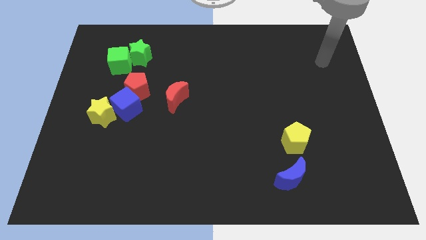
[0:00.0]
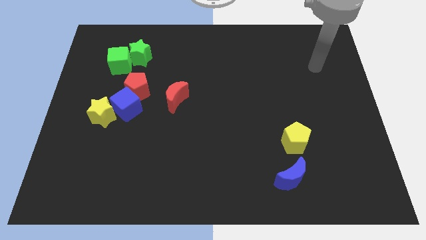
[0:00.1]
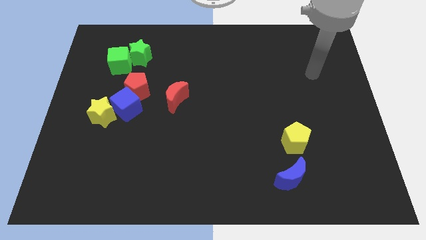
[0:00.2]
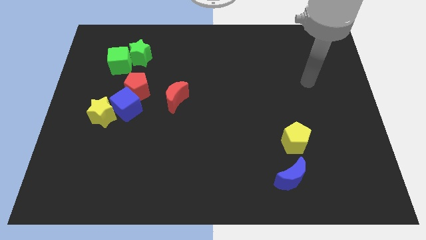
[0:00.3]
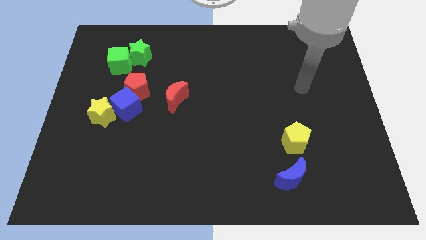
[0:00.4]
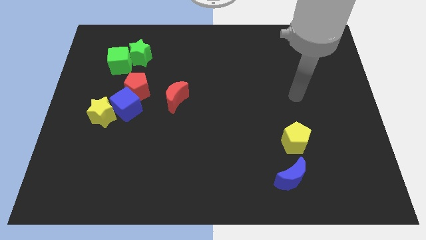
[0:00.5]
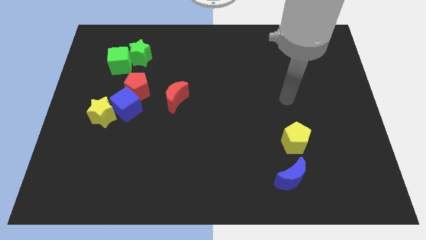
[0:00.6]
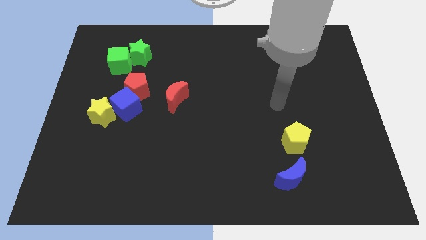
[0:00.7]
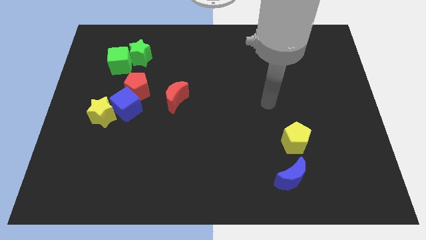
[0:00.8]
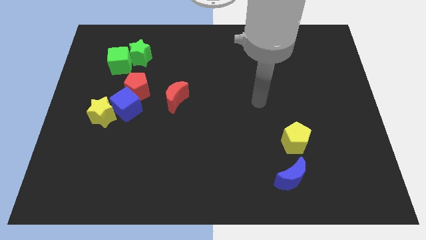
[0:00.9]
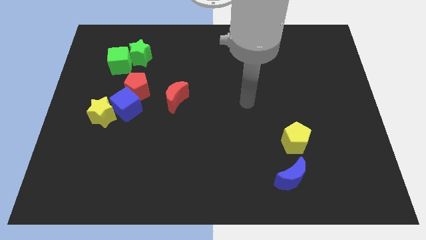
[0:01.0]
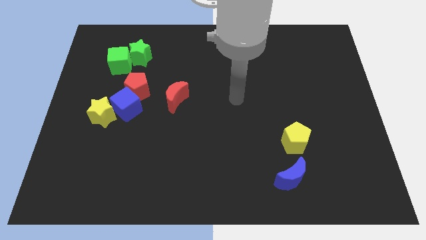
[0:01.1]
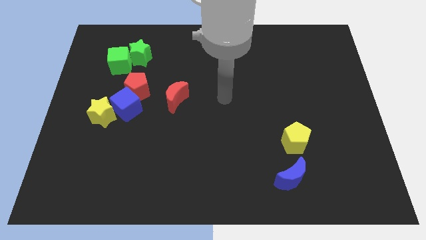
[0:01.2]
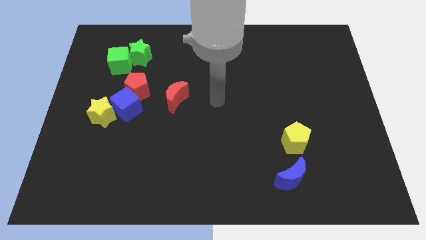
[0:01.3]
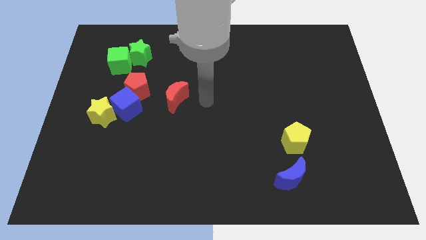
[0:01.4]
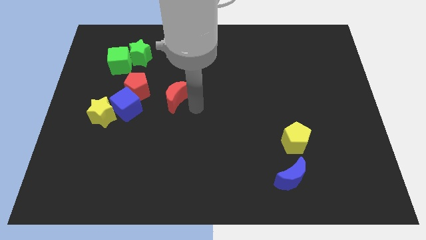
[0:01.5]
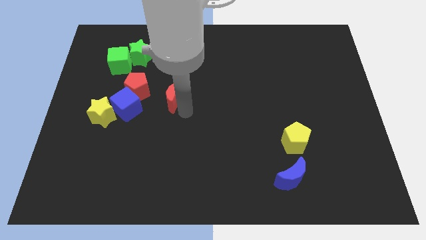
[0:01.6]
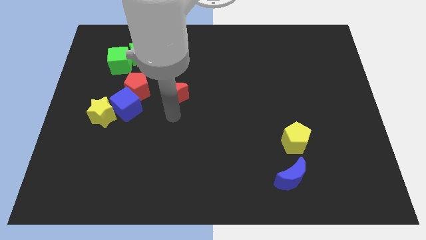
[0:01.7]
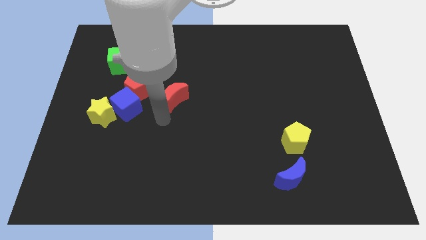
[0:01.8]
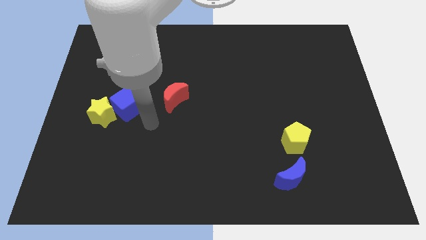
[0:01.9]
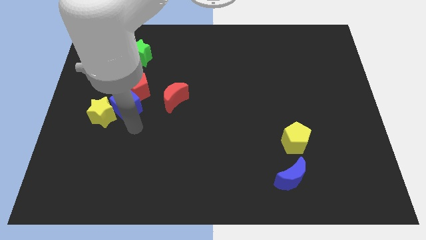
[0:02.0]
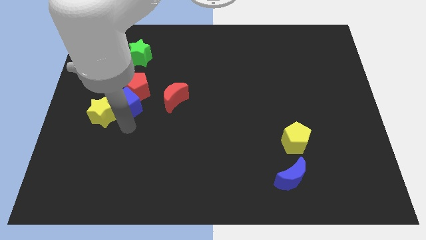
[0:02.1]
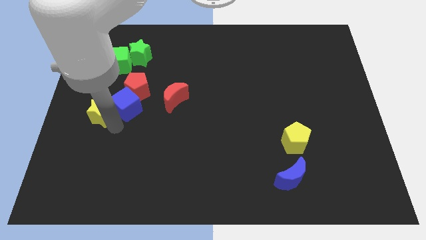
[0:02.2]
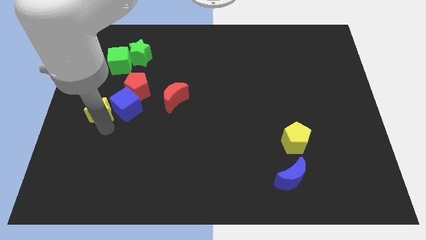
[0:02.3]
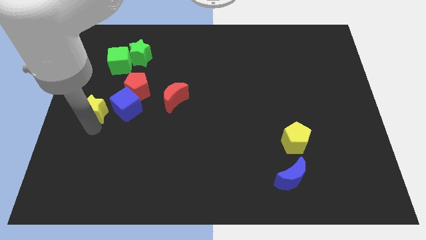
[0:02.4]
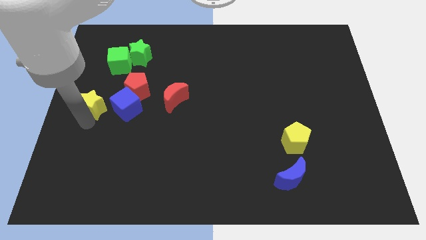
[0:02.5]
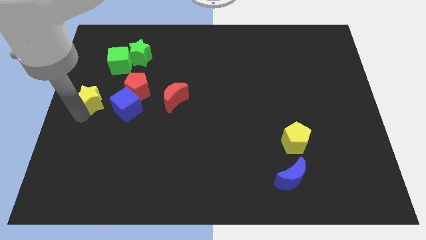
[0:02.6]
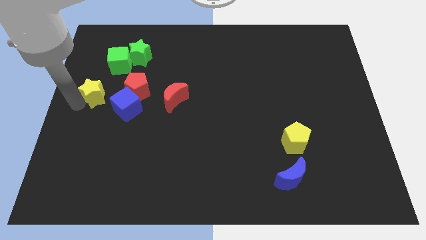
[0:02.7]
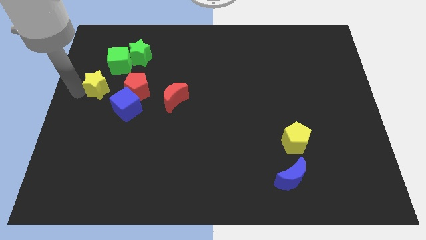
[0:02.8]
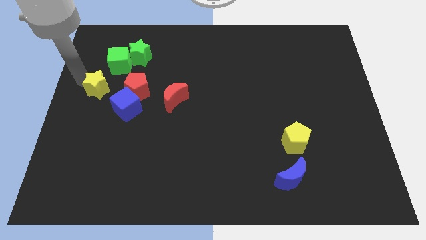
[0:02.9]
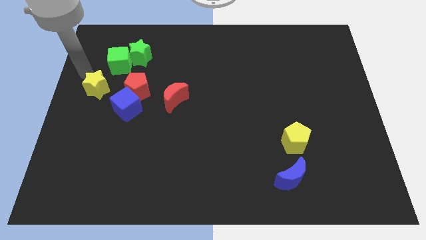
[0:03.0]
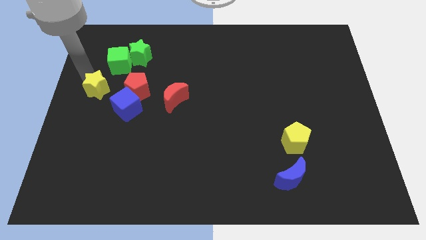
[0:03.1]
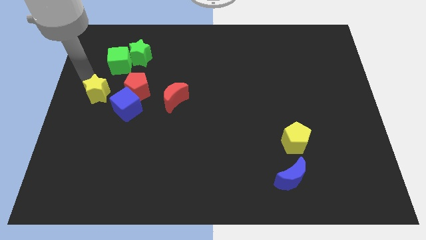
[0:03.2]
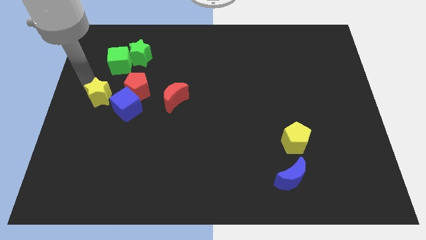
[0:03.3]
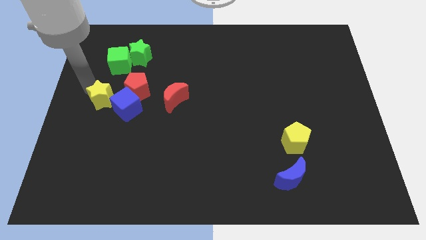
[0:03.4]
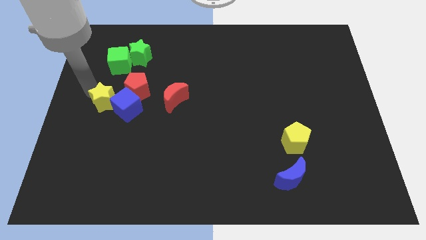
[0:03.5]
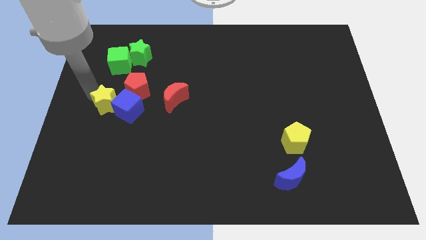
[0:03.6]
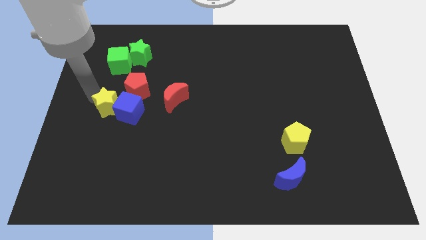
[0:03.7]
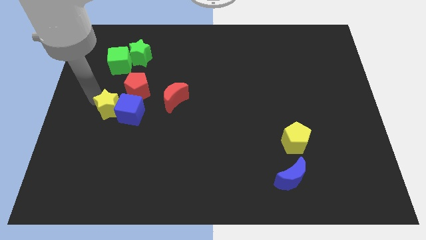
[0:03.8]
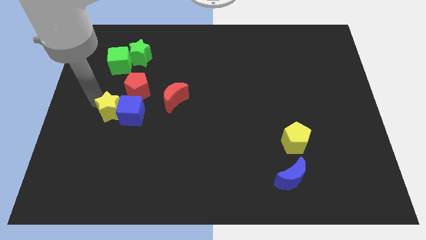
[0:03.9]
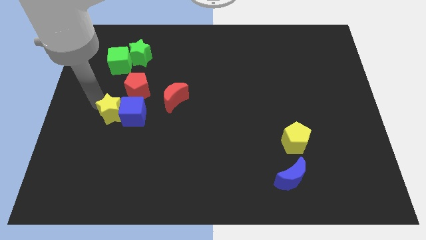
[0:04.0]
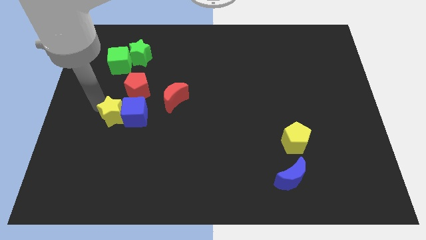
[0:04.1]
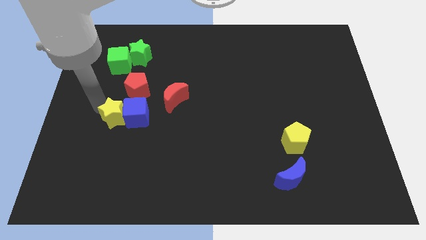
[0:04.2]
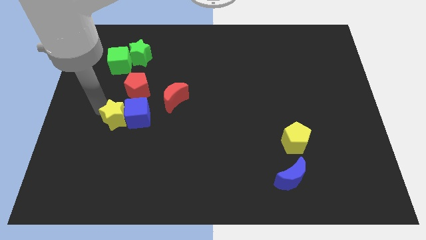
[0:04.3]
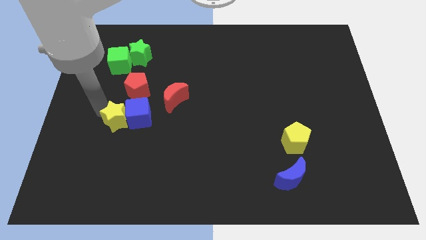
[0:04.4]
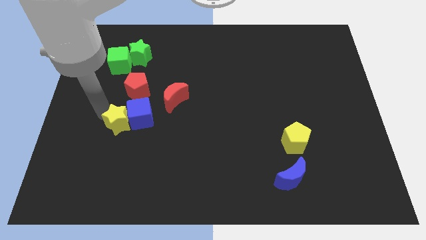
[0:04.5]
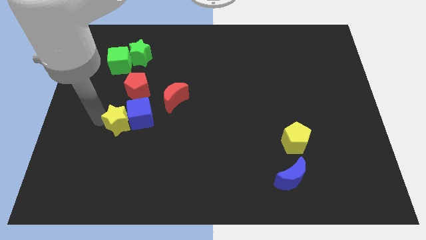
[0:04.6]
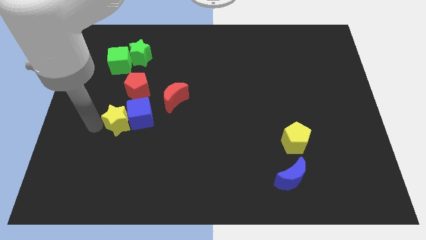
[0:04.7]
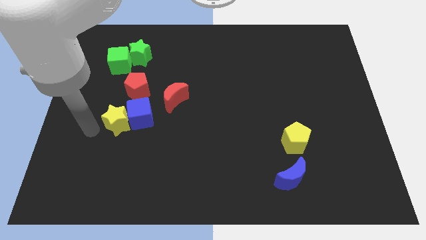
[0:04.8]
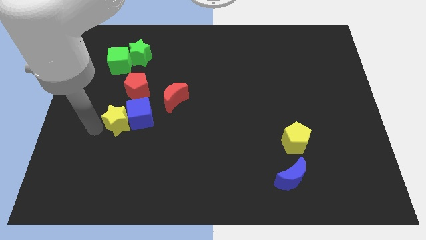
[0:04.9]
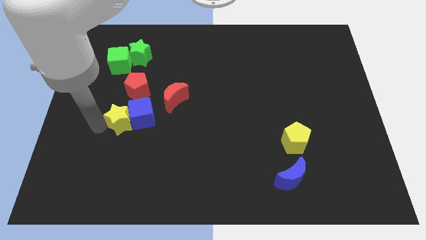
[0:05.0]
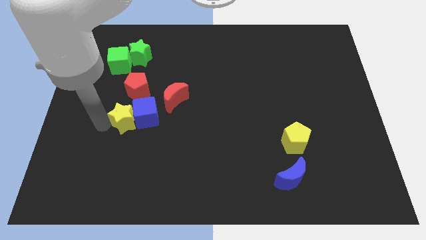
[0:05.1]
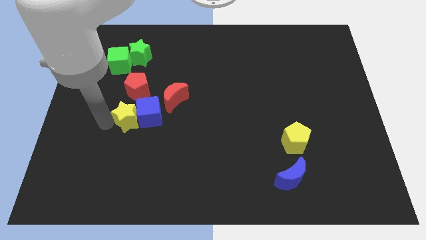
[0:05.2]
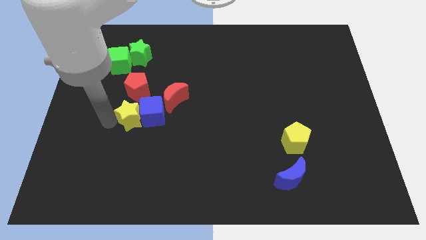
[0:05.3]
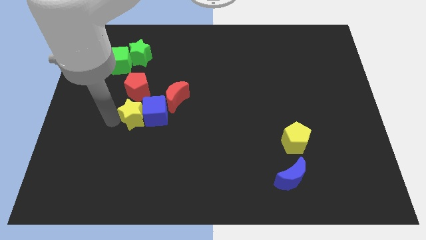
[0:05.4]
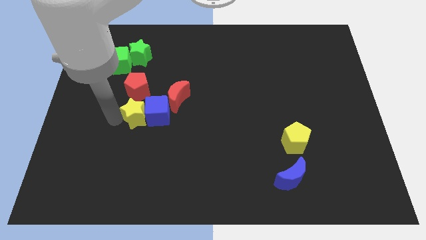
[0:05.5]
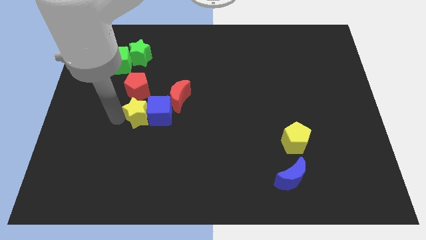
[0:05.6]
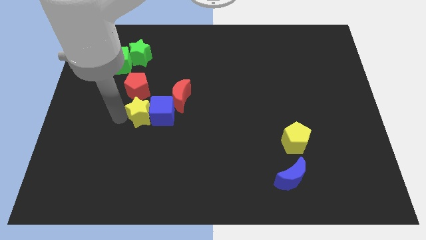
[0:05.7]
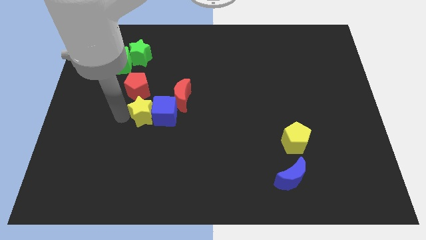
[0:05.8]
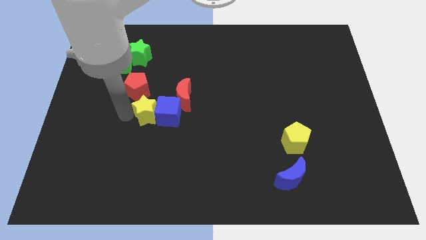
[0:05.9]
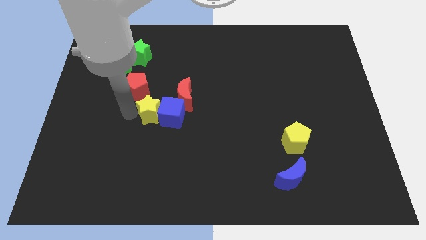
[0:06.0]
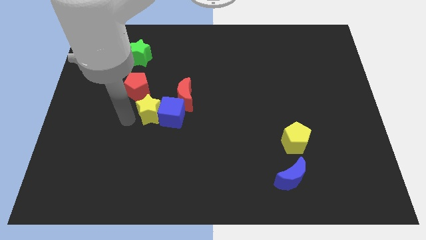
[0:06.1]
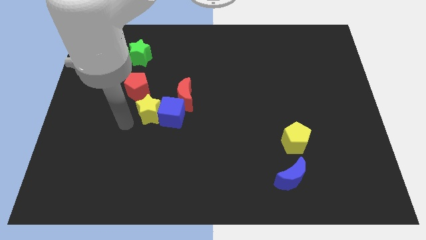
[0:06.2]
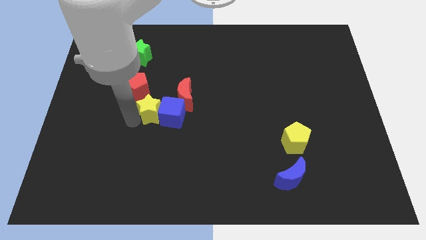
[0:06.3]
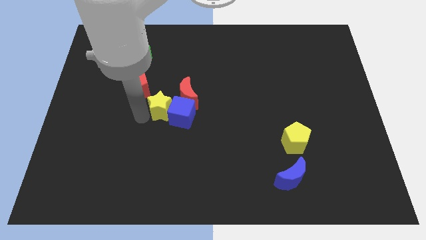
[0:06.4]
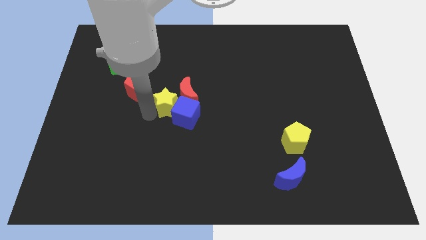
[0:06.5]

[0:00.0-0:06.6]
slide the yellow star close to the red moon

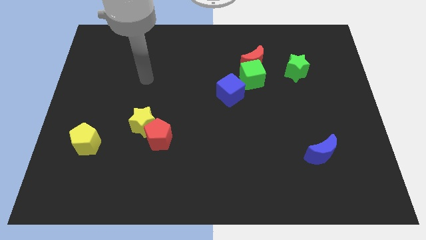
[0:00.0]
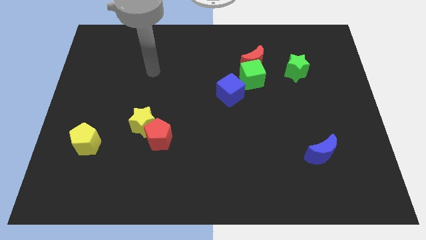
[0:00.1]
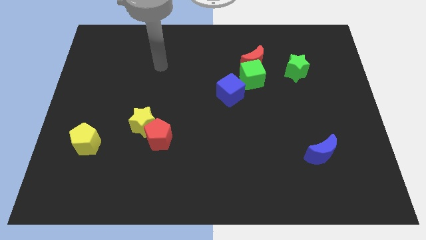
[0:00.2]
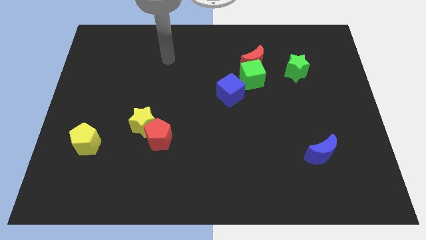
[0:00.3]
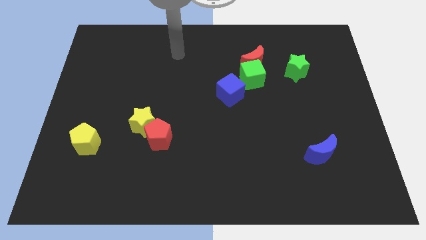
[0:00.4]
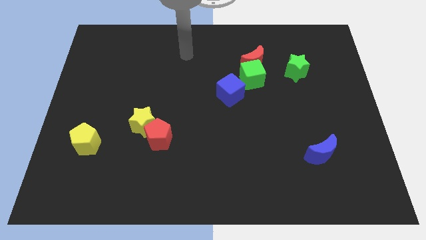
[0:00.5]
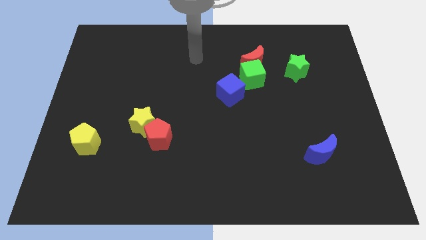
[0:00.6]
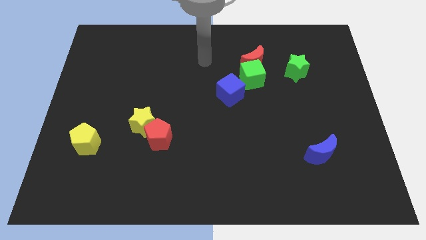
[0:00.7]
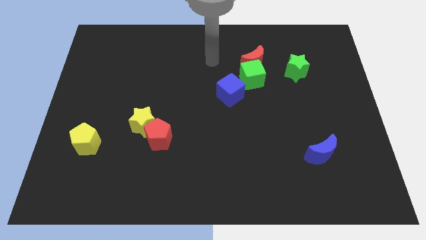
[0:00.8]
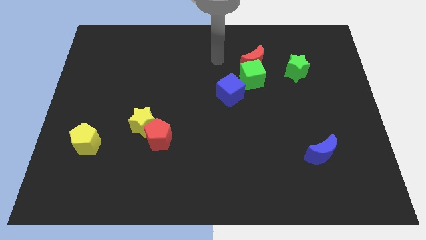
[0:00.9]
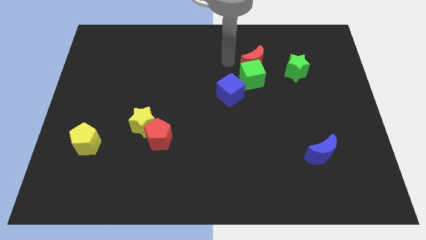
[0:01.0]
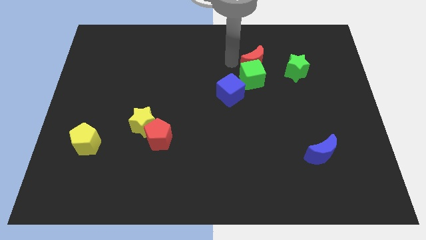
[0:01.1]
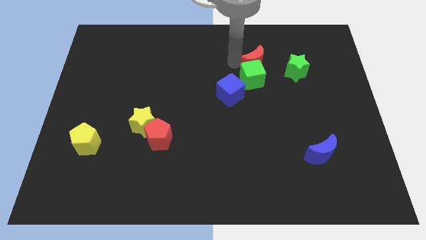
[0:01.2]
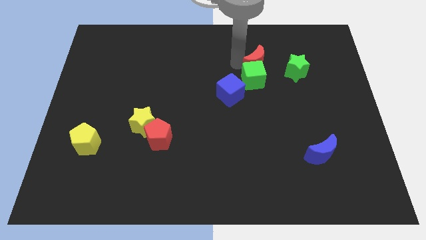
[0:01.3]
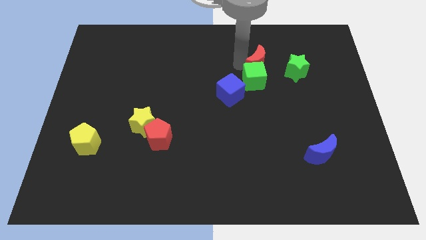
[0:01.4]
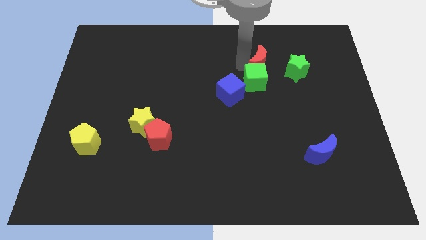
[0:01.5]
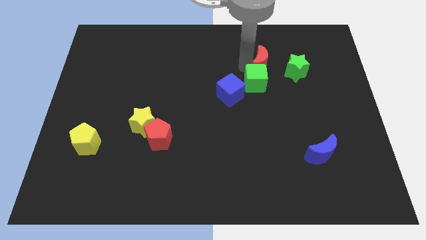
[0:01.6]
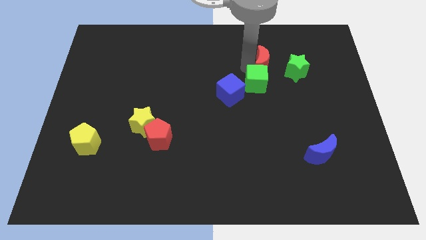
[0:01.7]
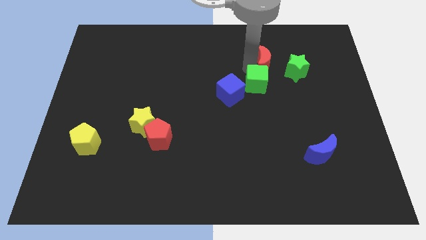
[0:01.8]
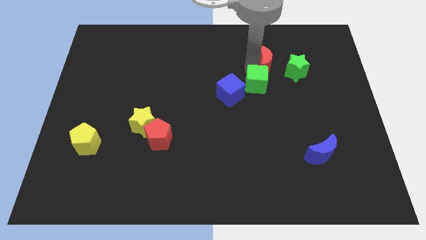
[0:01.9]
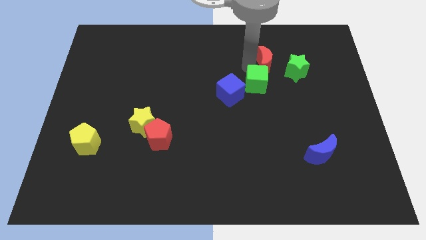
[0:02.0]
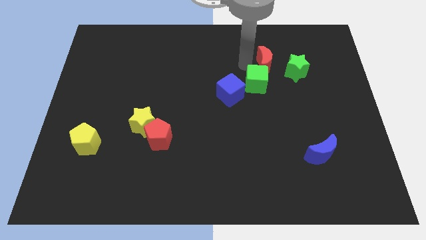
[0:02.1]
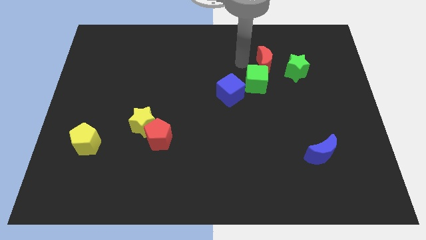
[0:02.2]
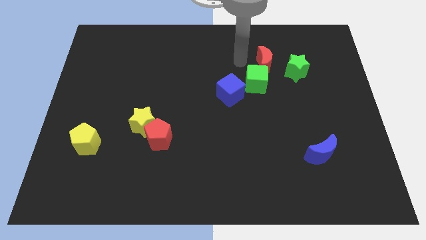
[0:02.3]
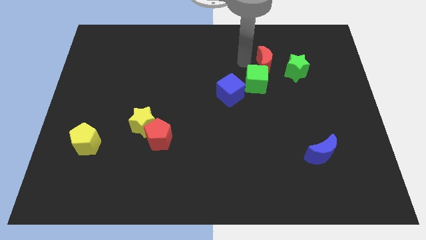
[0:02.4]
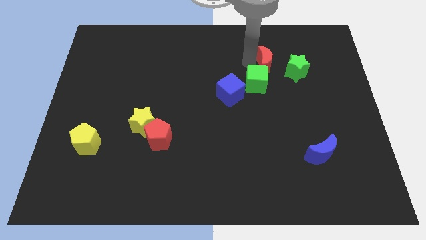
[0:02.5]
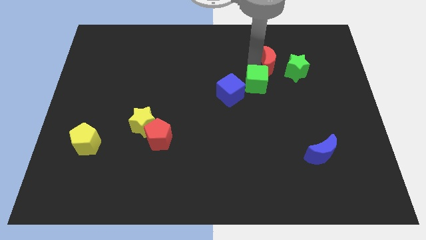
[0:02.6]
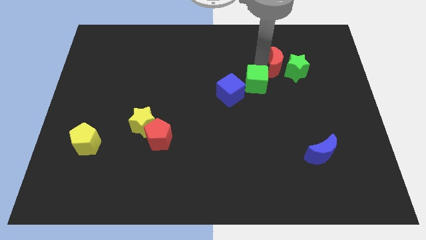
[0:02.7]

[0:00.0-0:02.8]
push the red moon close to the green star
